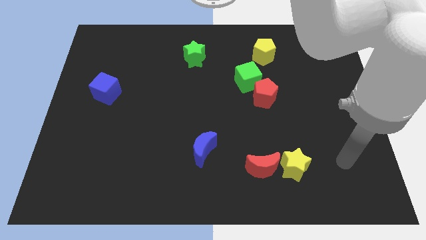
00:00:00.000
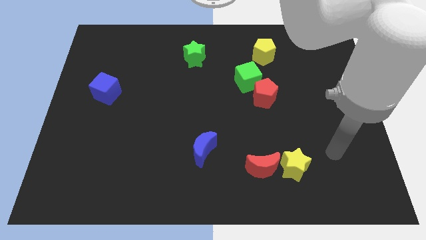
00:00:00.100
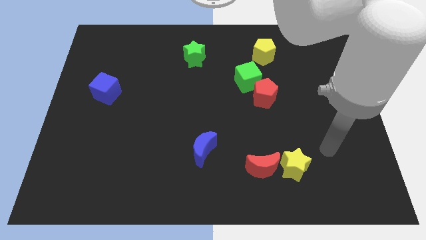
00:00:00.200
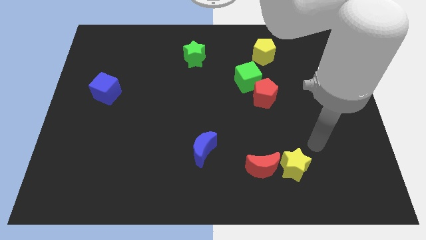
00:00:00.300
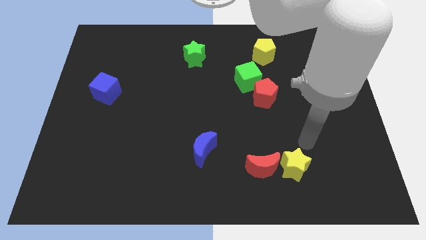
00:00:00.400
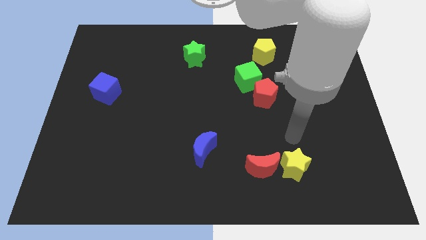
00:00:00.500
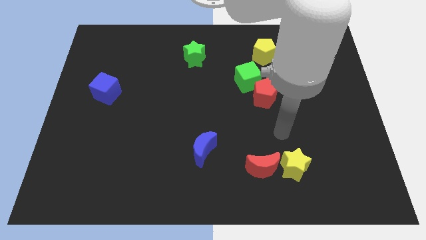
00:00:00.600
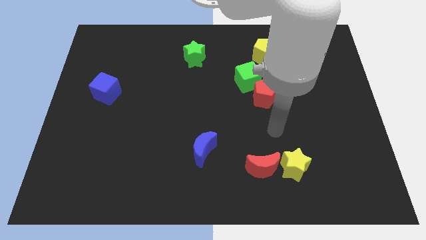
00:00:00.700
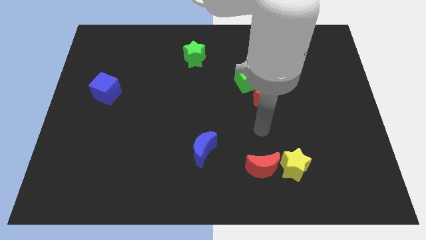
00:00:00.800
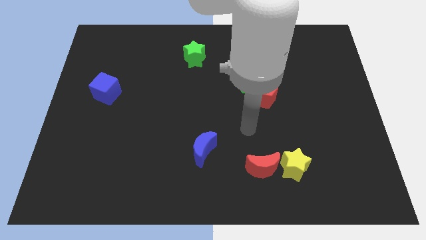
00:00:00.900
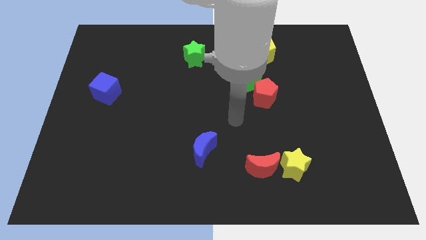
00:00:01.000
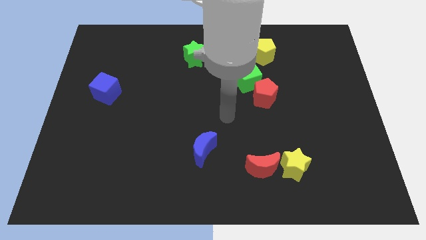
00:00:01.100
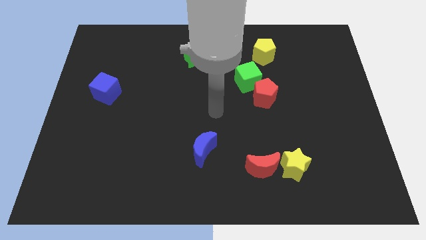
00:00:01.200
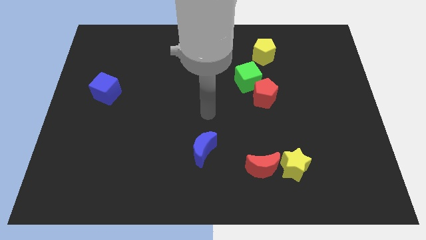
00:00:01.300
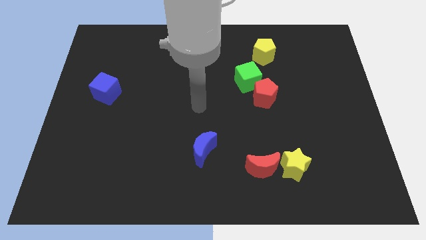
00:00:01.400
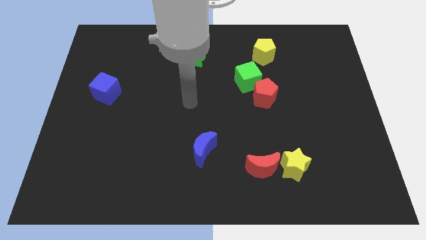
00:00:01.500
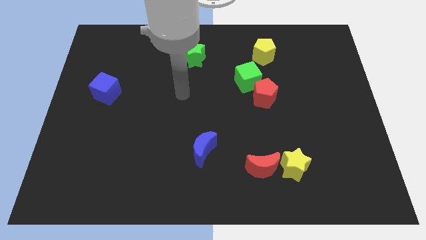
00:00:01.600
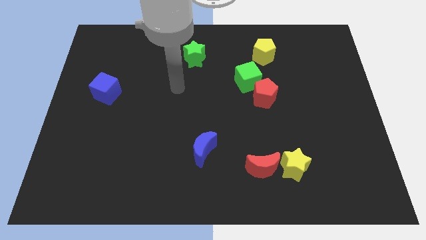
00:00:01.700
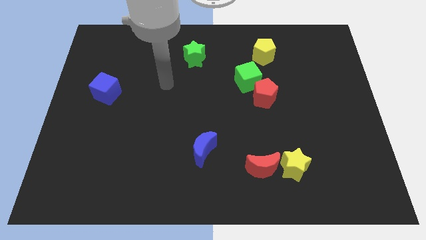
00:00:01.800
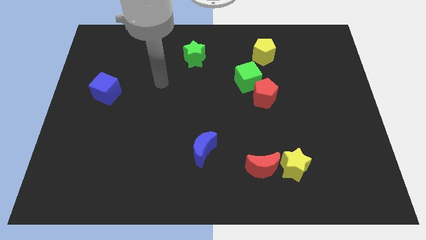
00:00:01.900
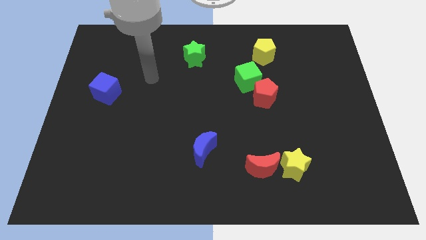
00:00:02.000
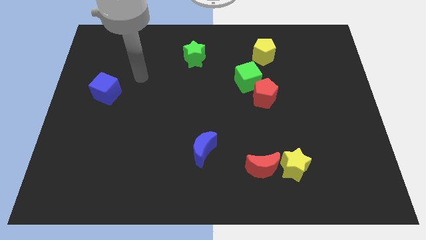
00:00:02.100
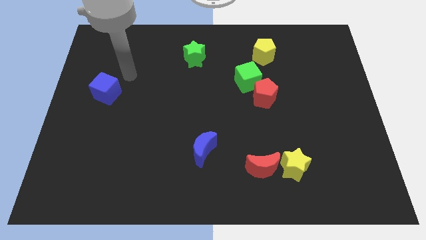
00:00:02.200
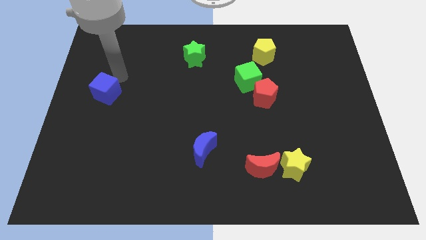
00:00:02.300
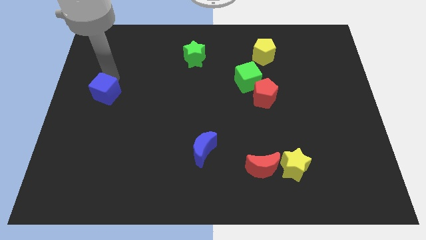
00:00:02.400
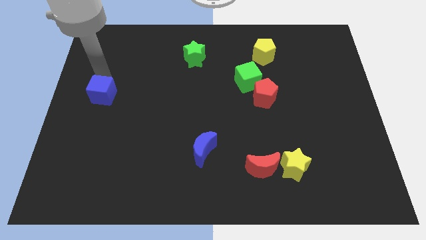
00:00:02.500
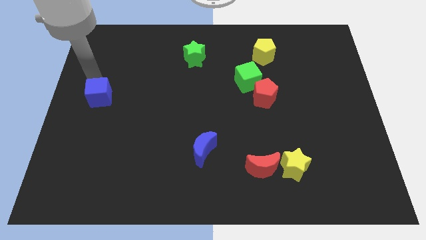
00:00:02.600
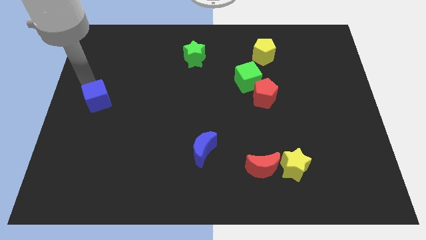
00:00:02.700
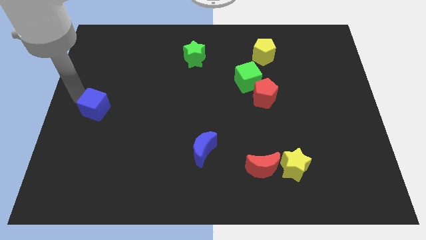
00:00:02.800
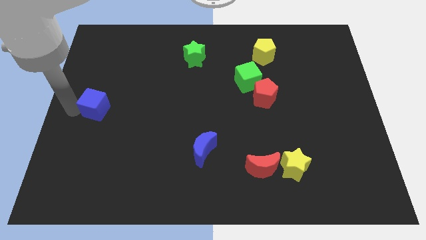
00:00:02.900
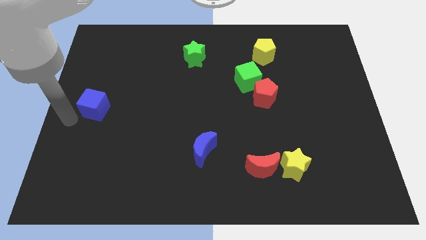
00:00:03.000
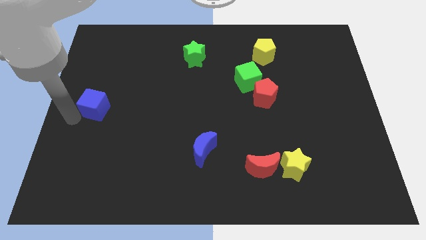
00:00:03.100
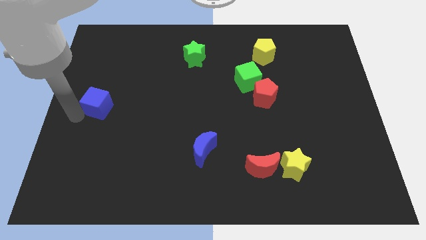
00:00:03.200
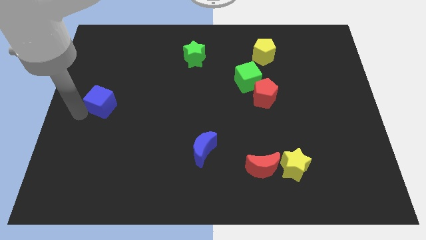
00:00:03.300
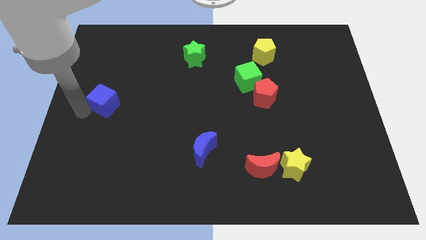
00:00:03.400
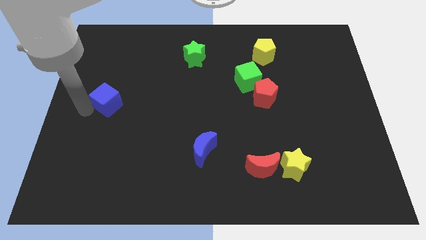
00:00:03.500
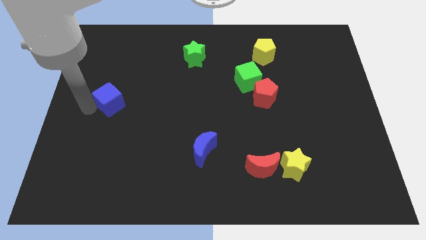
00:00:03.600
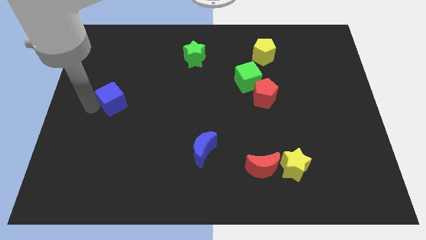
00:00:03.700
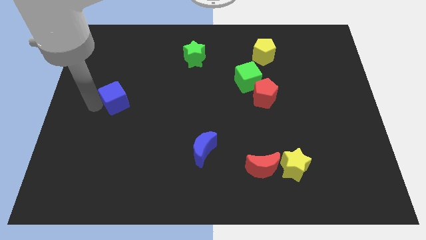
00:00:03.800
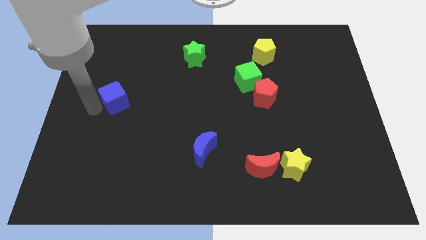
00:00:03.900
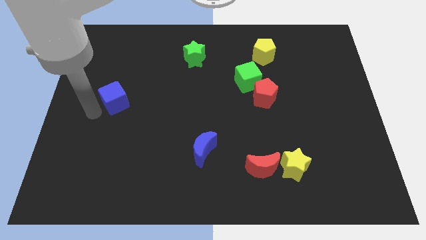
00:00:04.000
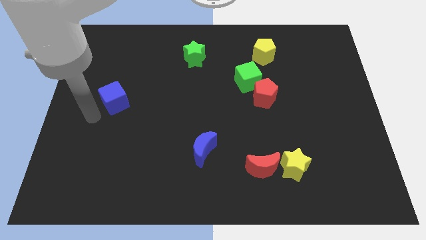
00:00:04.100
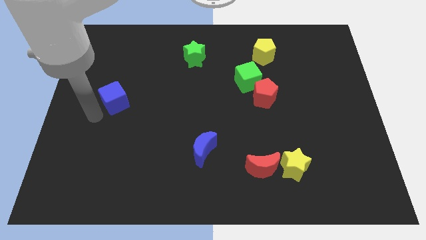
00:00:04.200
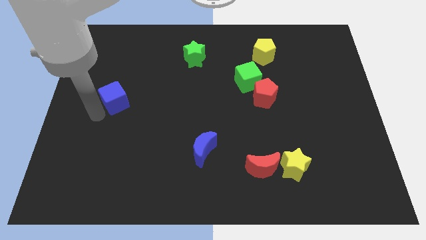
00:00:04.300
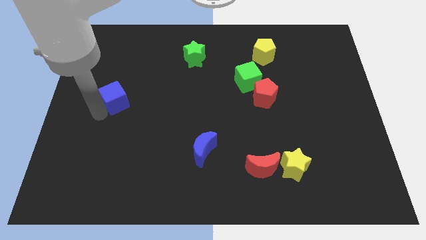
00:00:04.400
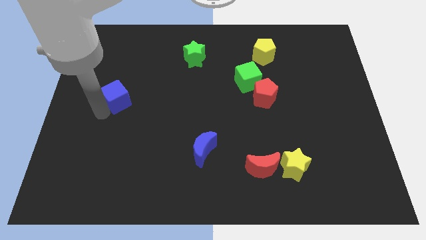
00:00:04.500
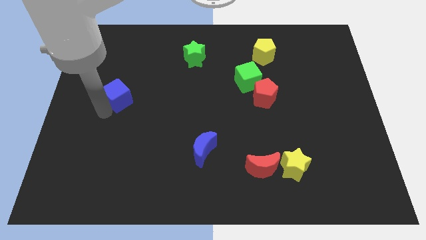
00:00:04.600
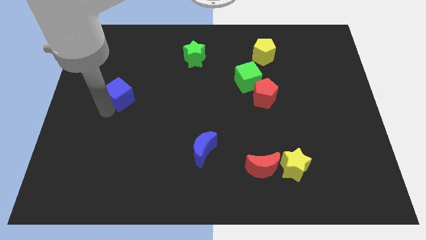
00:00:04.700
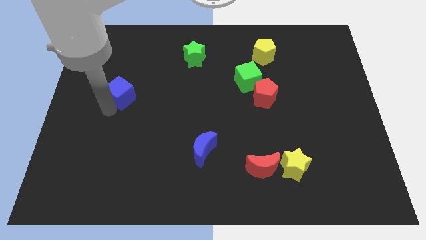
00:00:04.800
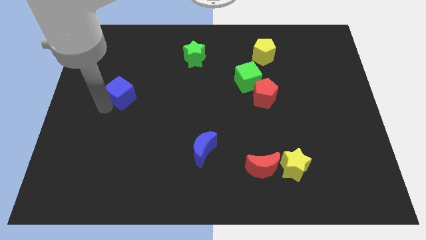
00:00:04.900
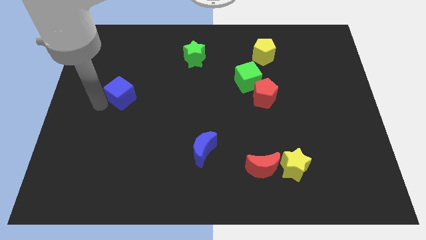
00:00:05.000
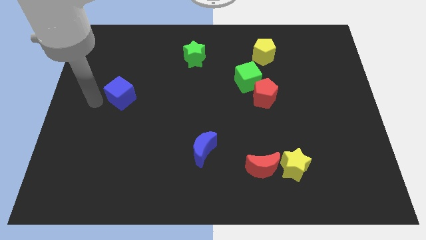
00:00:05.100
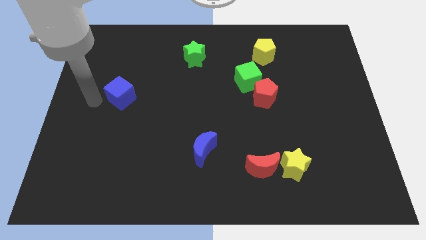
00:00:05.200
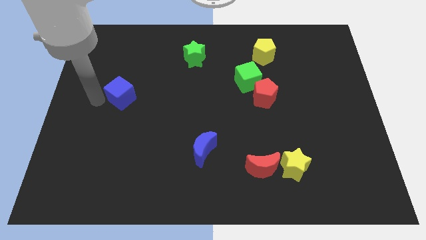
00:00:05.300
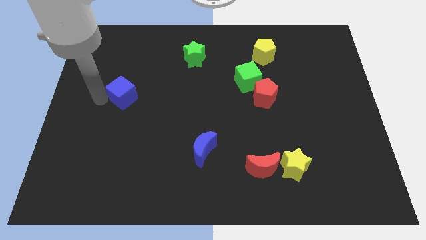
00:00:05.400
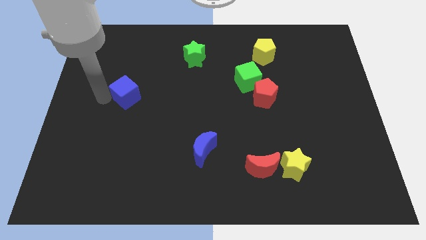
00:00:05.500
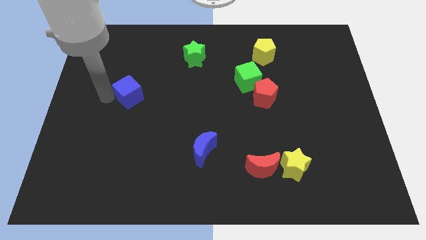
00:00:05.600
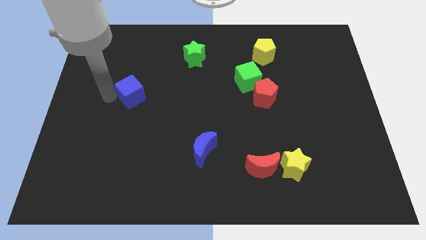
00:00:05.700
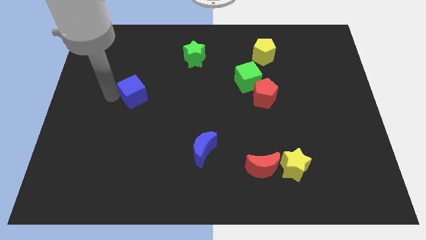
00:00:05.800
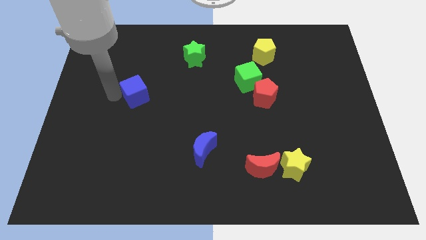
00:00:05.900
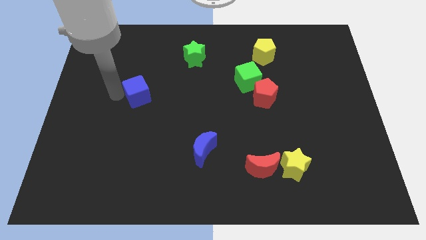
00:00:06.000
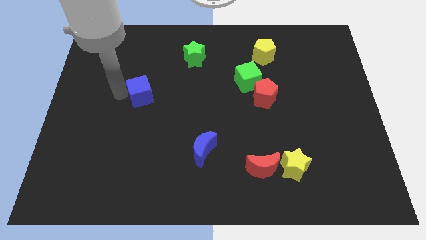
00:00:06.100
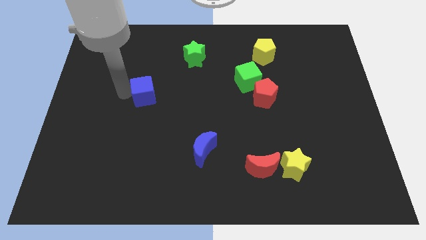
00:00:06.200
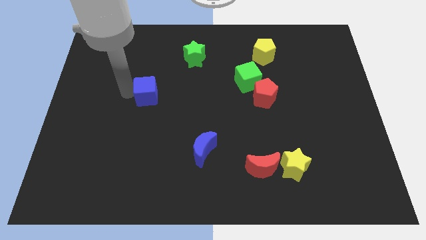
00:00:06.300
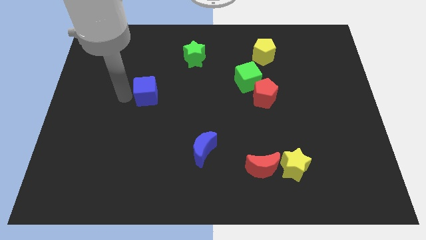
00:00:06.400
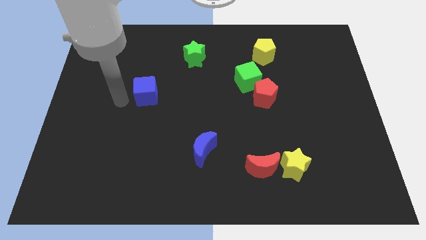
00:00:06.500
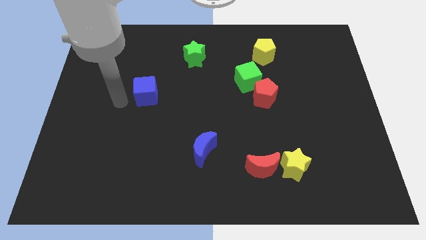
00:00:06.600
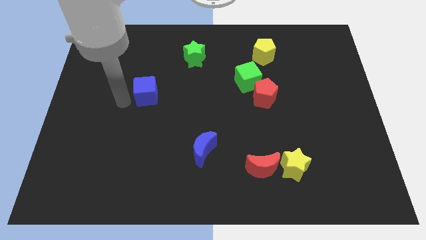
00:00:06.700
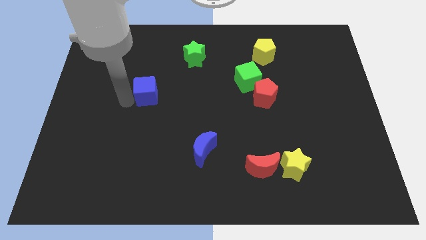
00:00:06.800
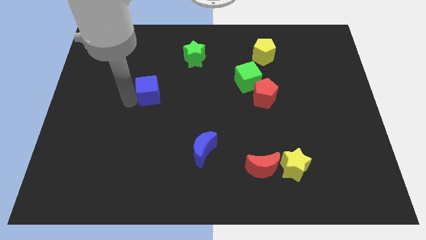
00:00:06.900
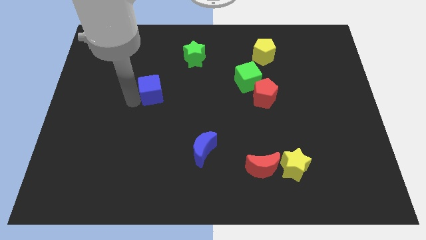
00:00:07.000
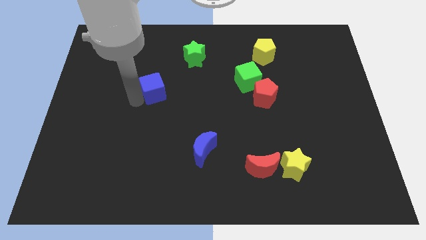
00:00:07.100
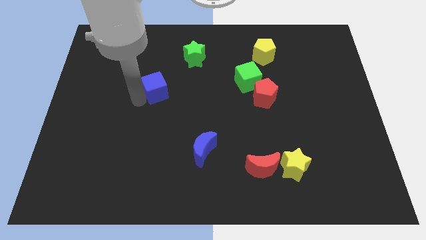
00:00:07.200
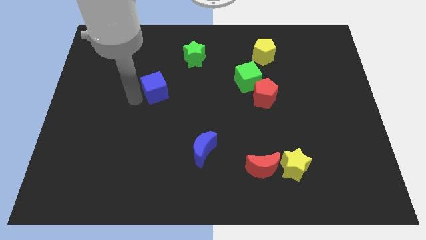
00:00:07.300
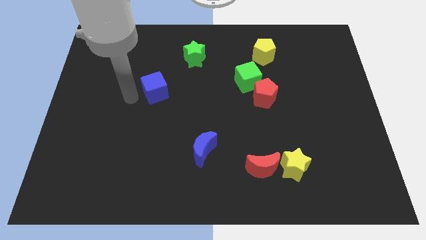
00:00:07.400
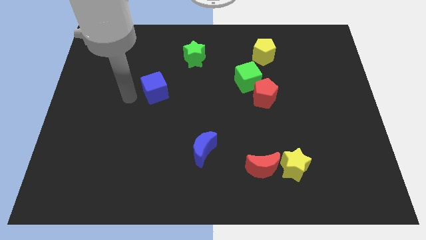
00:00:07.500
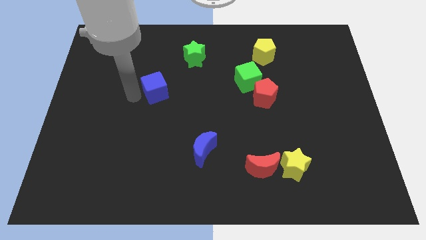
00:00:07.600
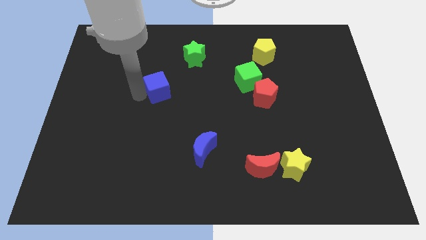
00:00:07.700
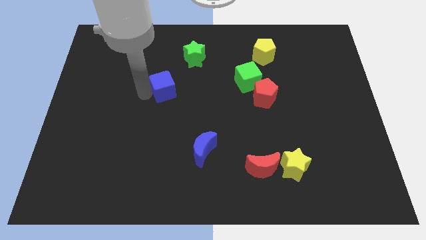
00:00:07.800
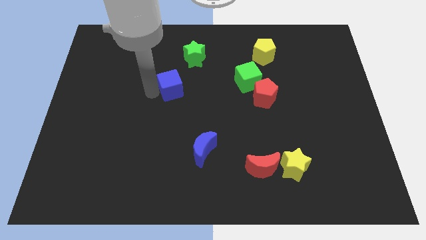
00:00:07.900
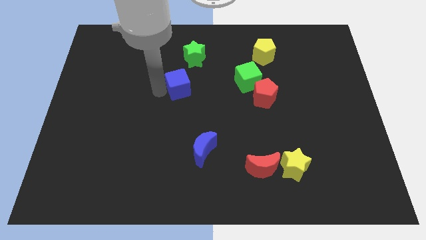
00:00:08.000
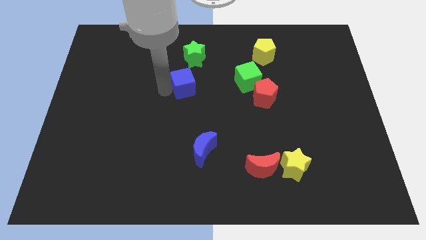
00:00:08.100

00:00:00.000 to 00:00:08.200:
push the blue cube to the left side of the green cube
